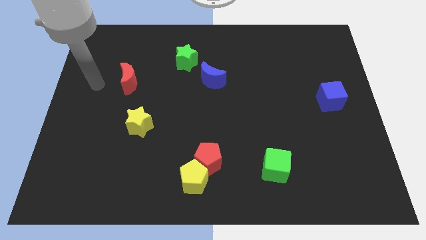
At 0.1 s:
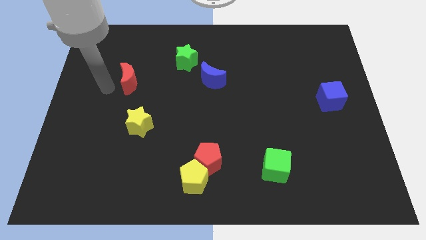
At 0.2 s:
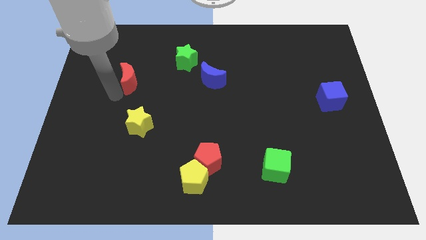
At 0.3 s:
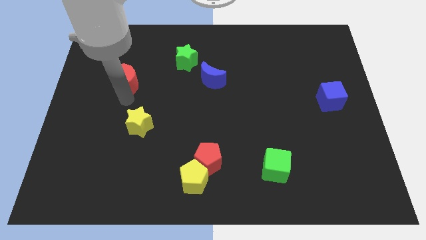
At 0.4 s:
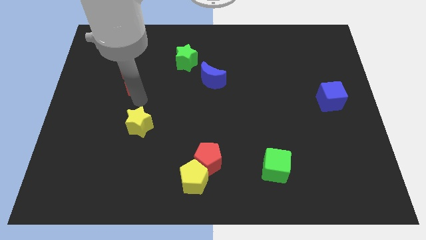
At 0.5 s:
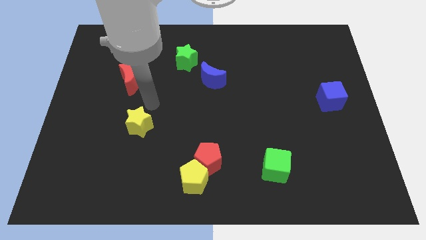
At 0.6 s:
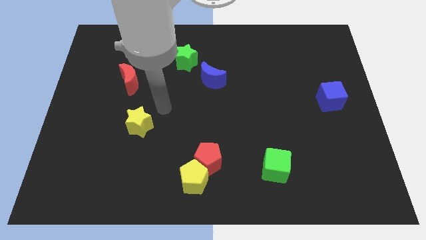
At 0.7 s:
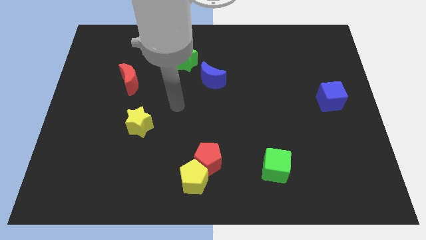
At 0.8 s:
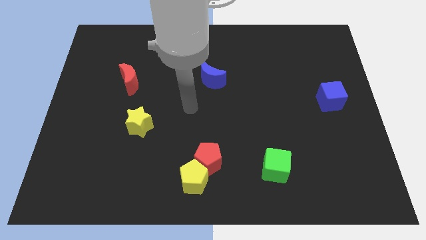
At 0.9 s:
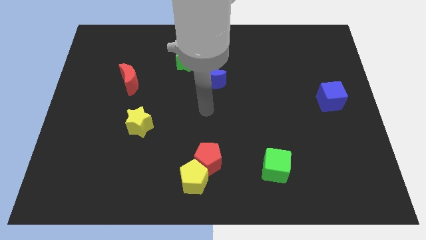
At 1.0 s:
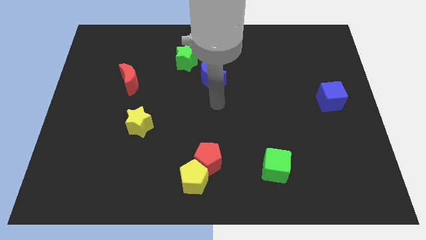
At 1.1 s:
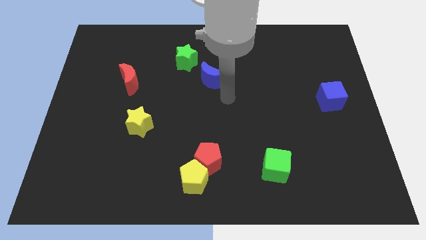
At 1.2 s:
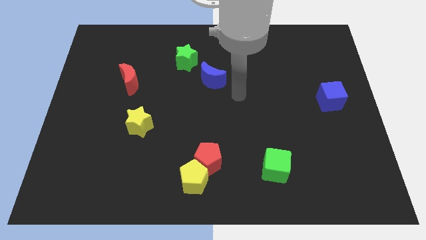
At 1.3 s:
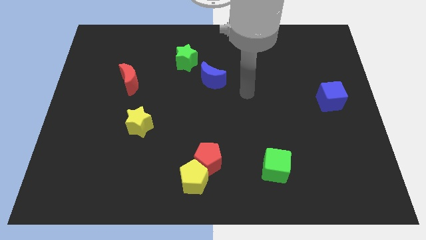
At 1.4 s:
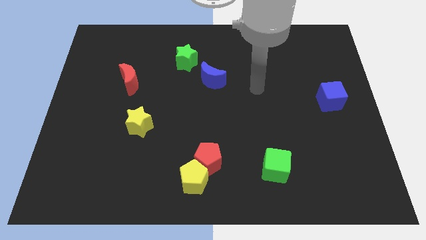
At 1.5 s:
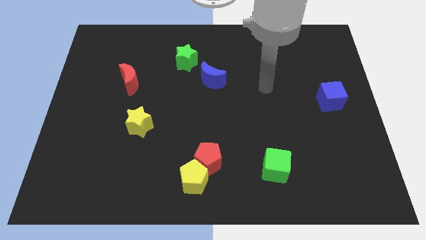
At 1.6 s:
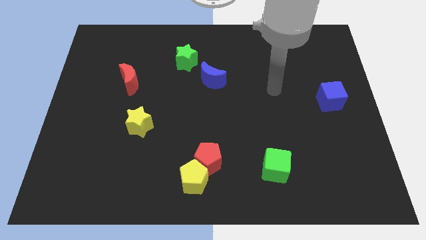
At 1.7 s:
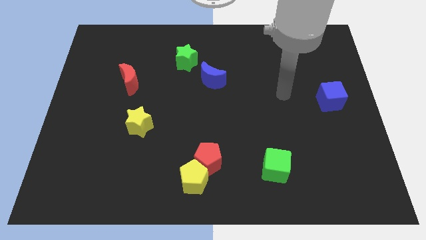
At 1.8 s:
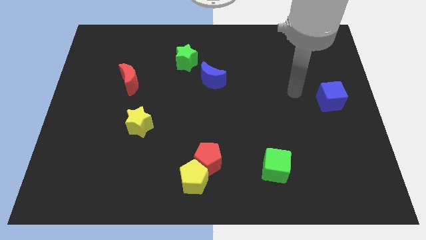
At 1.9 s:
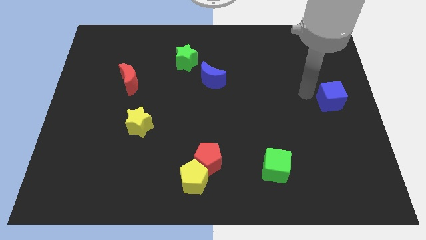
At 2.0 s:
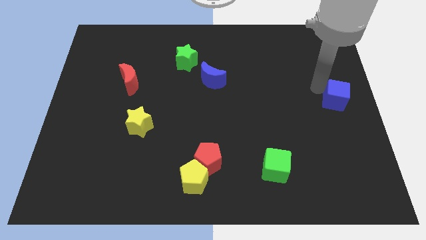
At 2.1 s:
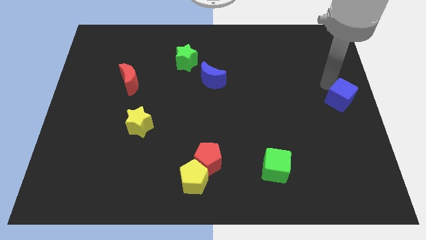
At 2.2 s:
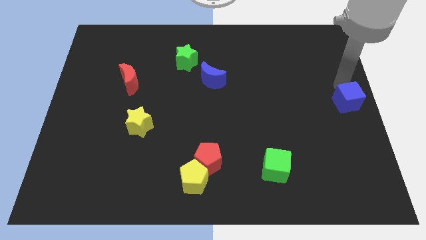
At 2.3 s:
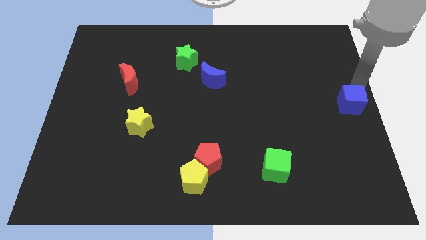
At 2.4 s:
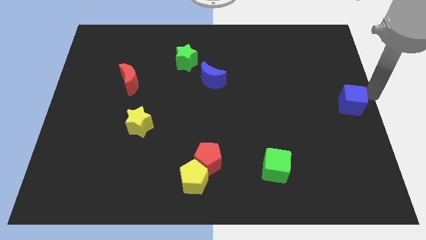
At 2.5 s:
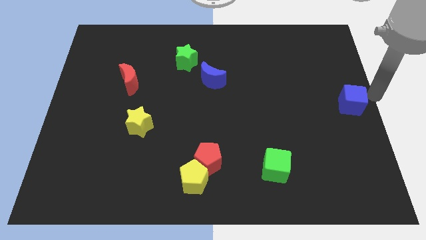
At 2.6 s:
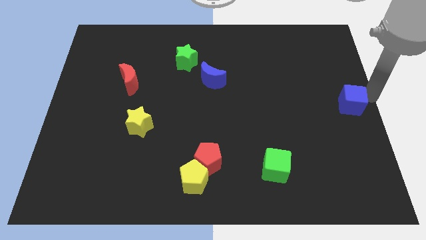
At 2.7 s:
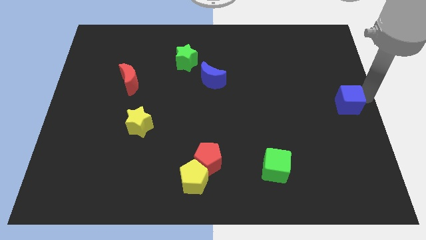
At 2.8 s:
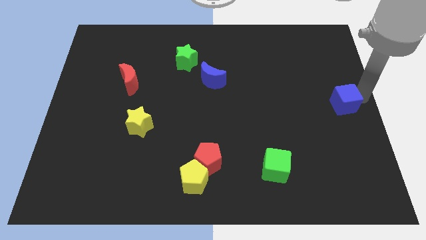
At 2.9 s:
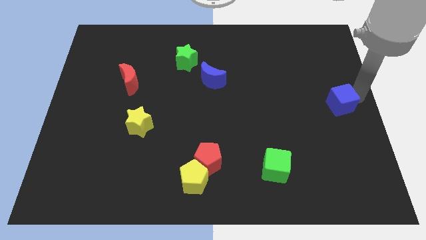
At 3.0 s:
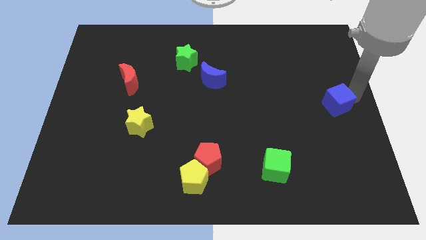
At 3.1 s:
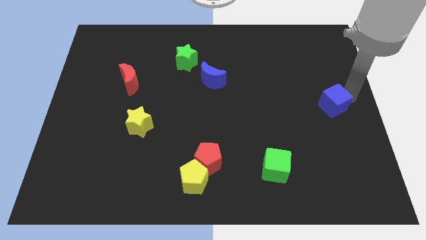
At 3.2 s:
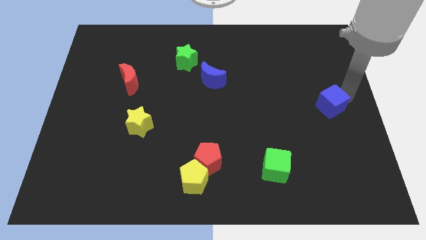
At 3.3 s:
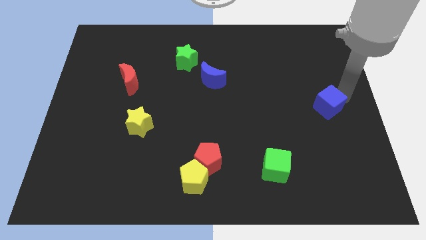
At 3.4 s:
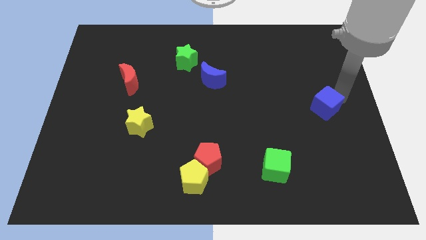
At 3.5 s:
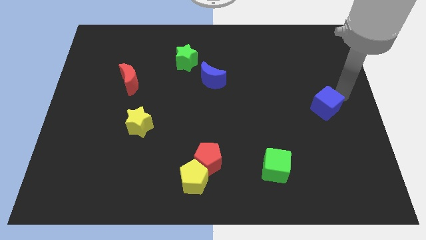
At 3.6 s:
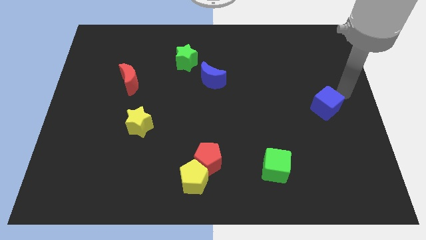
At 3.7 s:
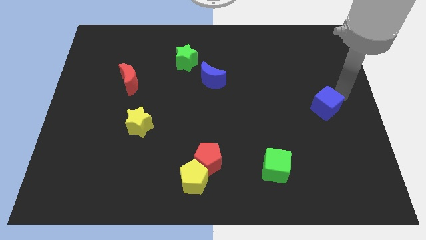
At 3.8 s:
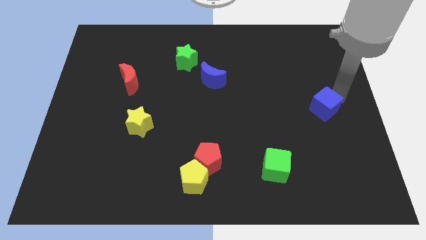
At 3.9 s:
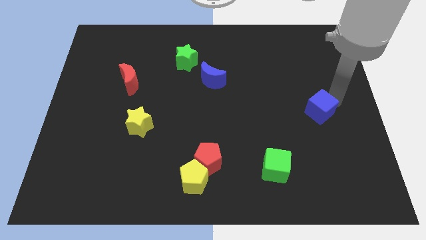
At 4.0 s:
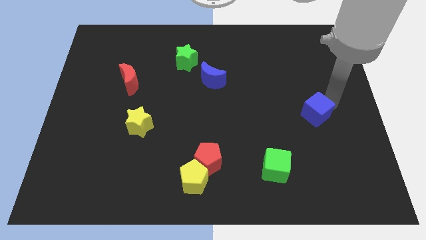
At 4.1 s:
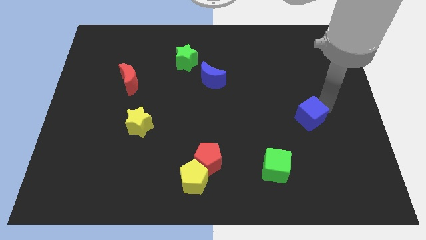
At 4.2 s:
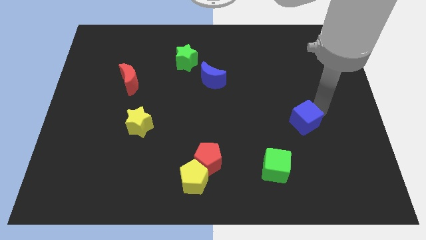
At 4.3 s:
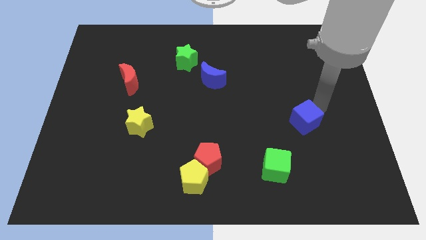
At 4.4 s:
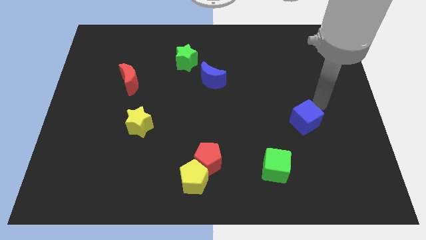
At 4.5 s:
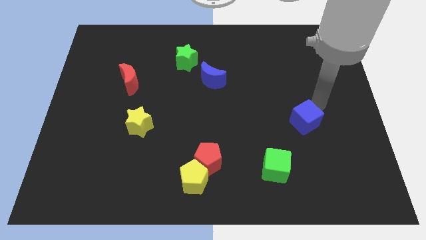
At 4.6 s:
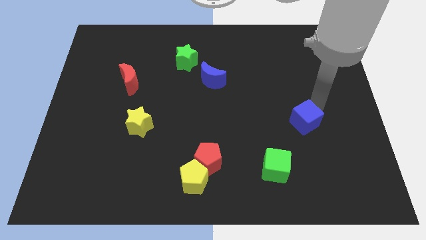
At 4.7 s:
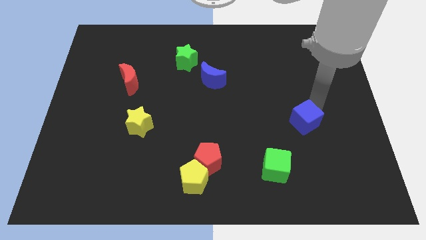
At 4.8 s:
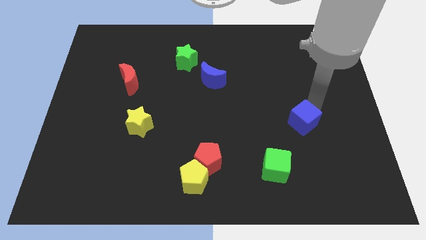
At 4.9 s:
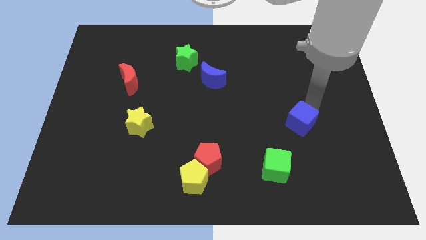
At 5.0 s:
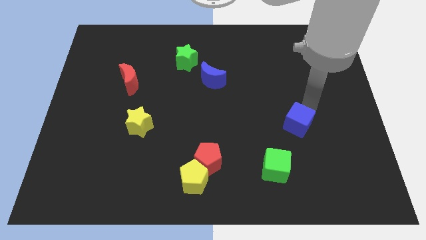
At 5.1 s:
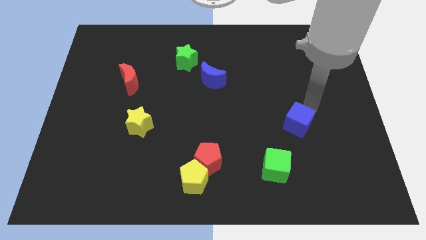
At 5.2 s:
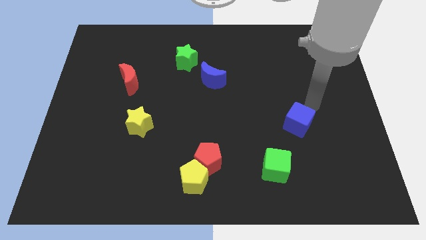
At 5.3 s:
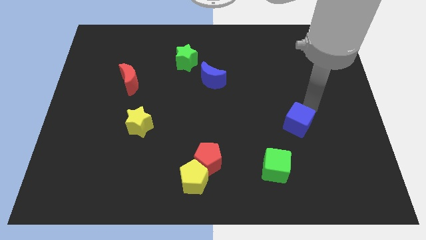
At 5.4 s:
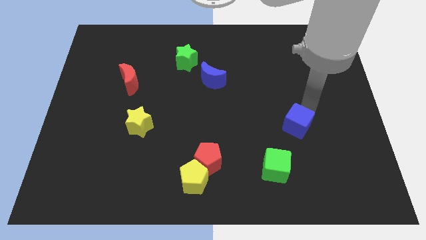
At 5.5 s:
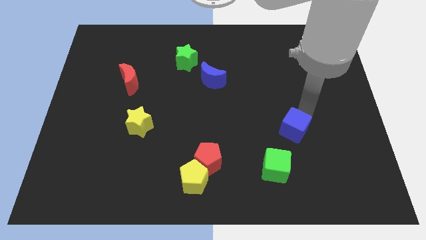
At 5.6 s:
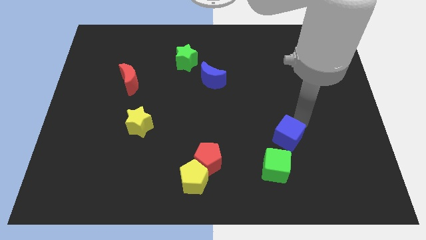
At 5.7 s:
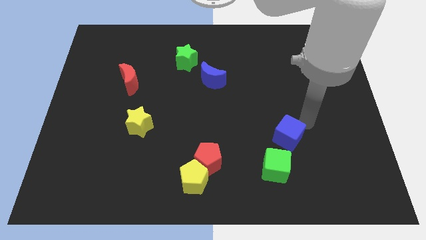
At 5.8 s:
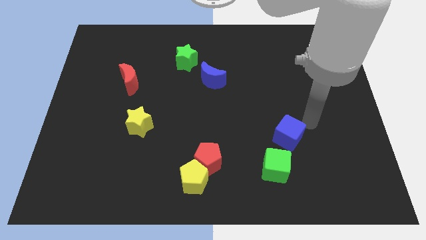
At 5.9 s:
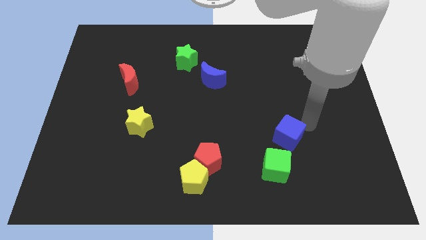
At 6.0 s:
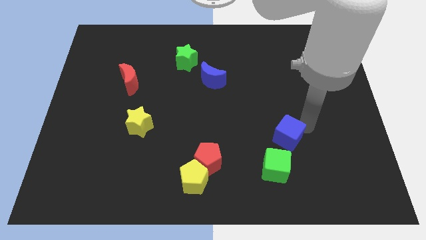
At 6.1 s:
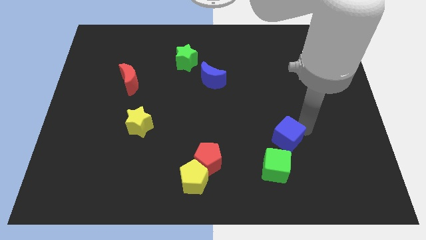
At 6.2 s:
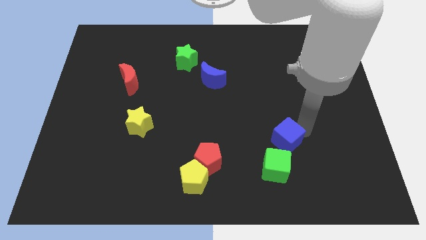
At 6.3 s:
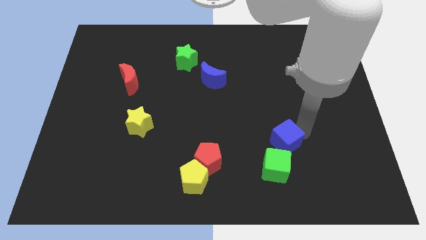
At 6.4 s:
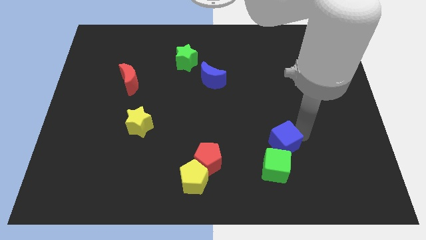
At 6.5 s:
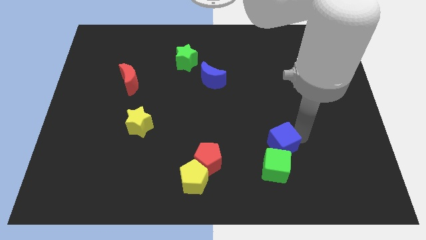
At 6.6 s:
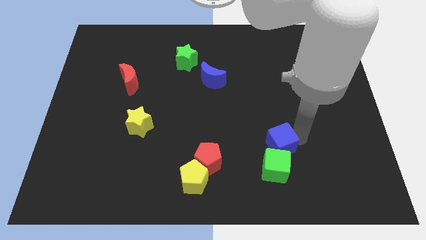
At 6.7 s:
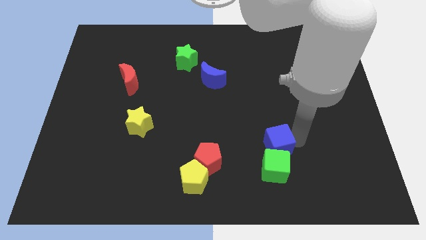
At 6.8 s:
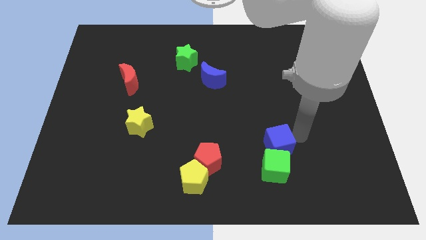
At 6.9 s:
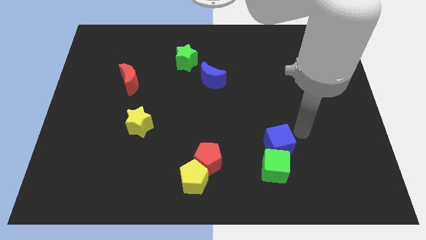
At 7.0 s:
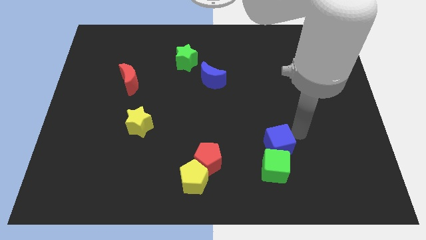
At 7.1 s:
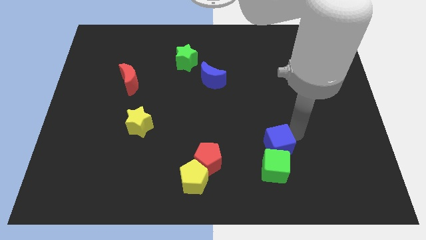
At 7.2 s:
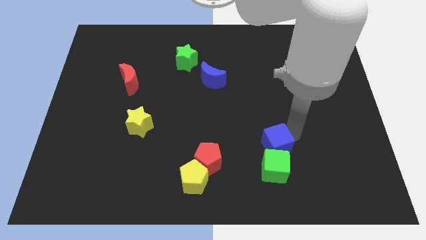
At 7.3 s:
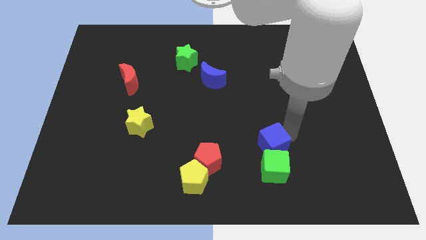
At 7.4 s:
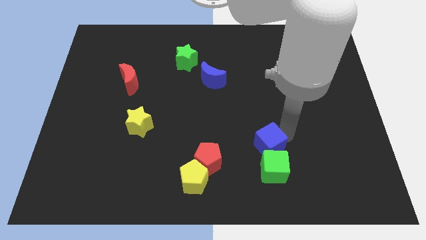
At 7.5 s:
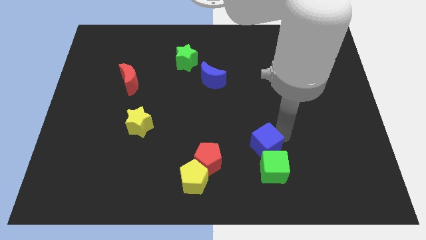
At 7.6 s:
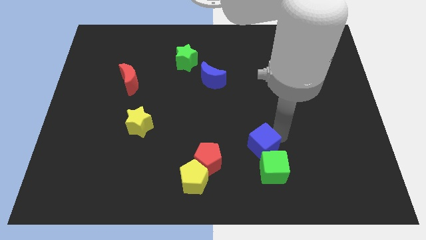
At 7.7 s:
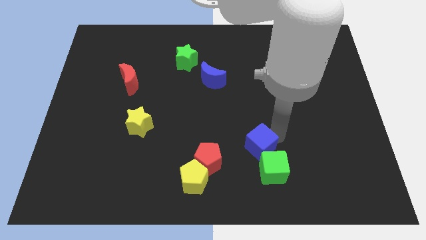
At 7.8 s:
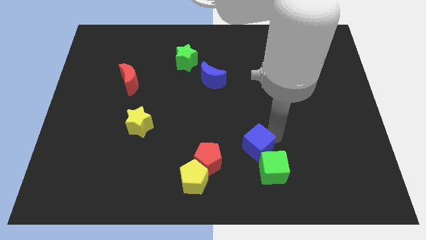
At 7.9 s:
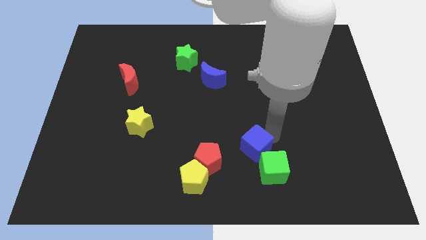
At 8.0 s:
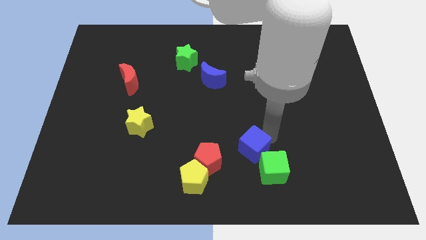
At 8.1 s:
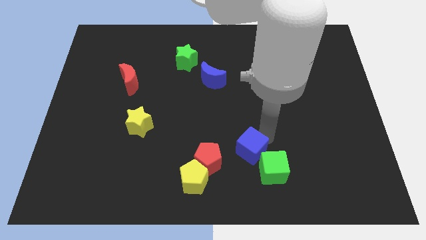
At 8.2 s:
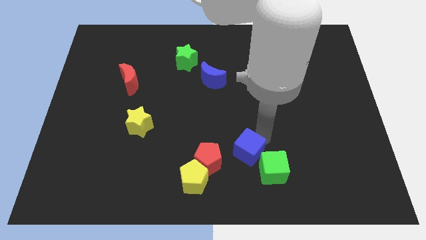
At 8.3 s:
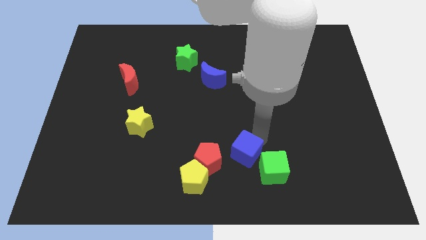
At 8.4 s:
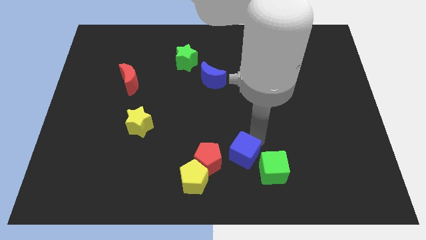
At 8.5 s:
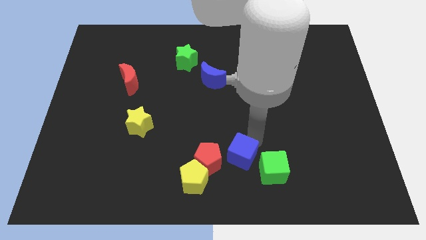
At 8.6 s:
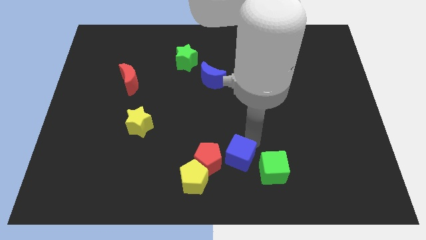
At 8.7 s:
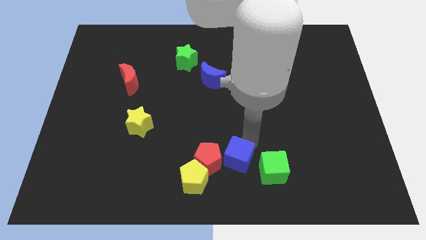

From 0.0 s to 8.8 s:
push the blue cube to the bottom side
